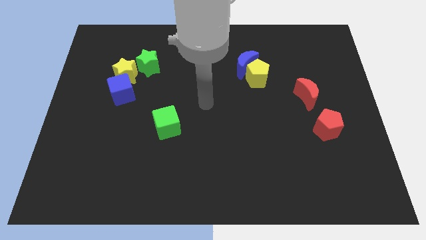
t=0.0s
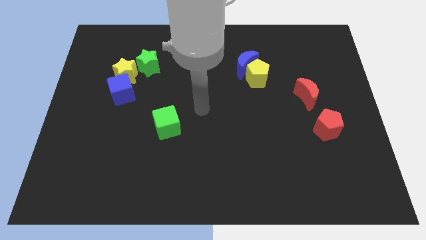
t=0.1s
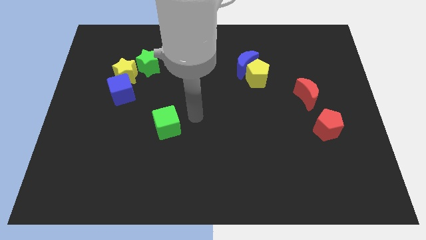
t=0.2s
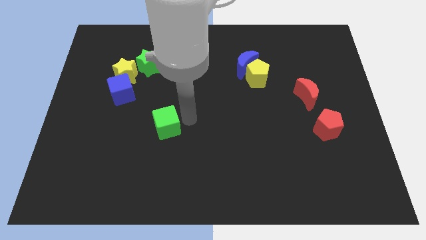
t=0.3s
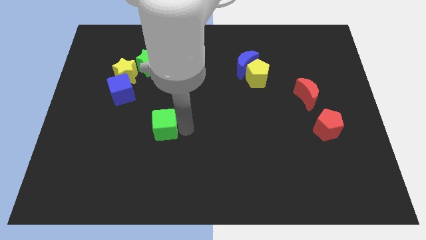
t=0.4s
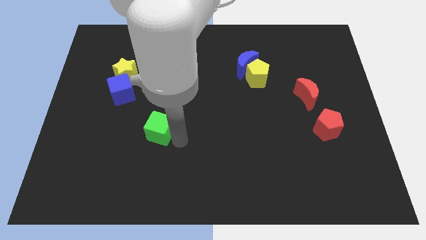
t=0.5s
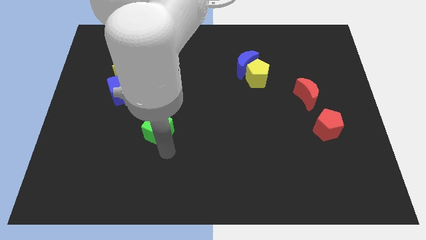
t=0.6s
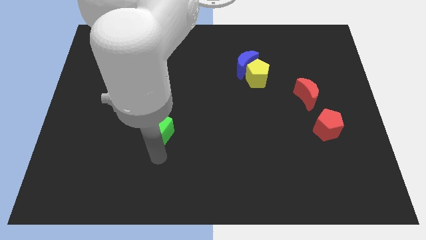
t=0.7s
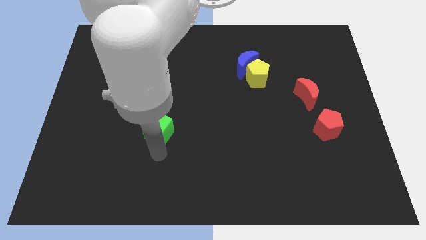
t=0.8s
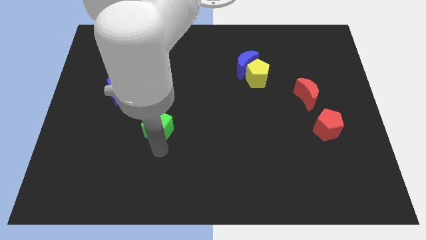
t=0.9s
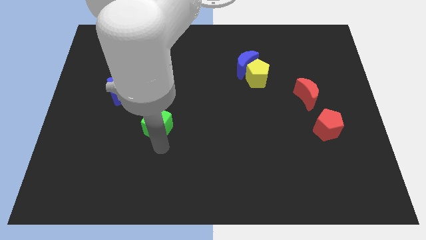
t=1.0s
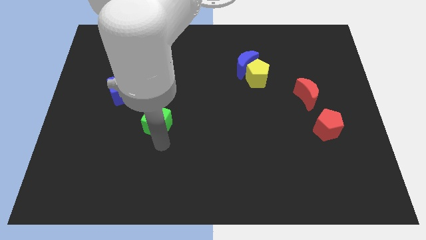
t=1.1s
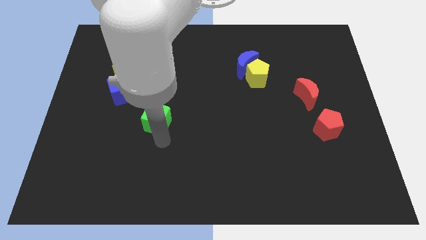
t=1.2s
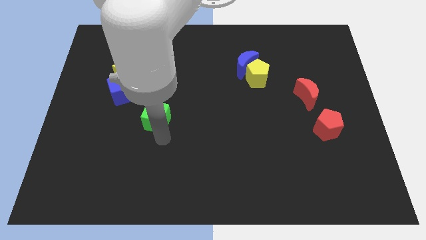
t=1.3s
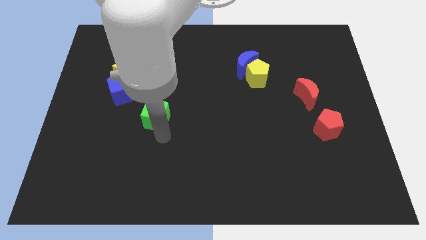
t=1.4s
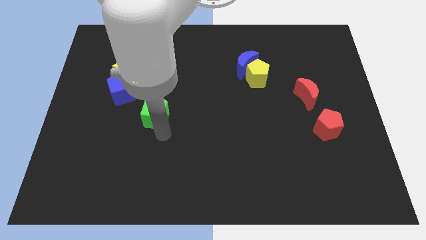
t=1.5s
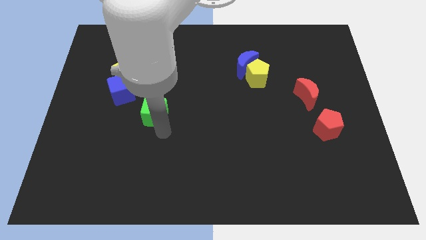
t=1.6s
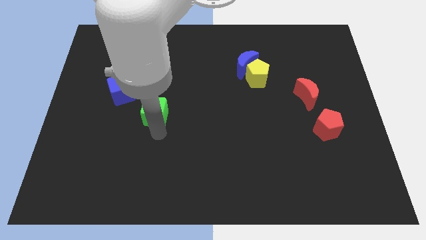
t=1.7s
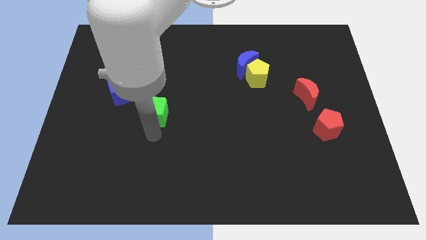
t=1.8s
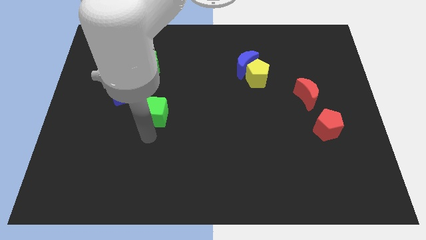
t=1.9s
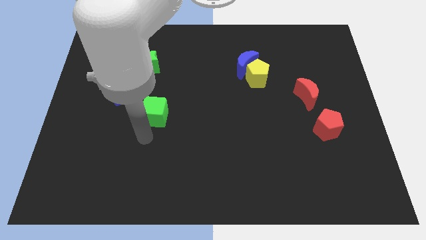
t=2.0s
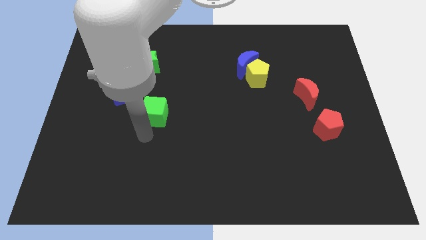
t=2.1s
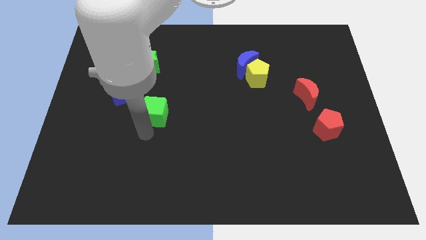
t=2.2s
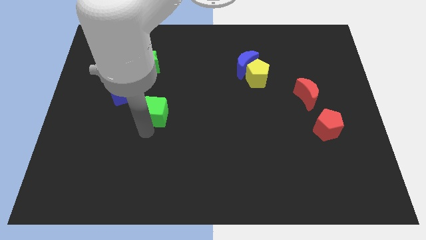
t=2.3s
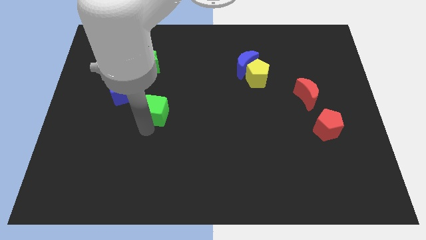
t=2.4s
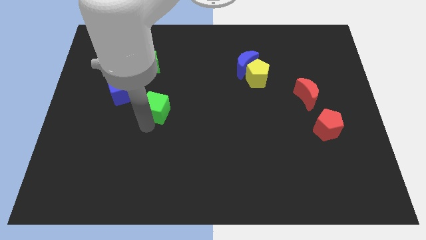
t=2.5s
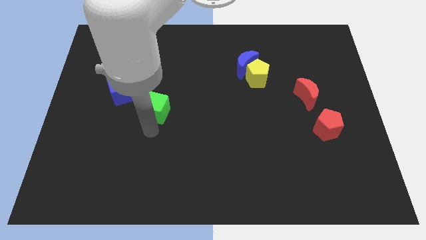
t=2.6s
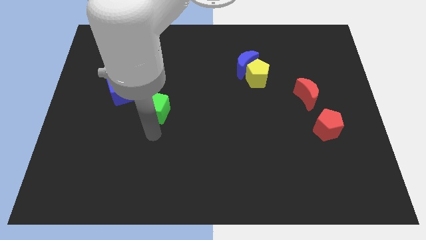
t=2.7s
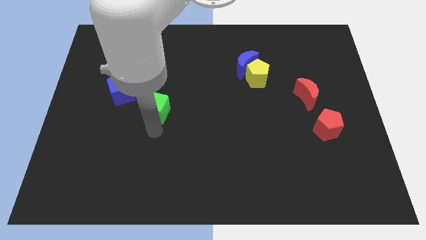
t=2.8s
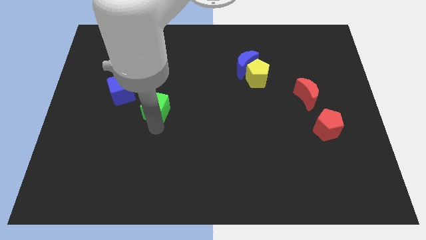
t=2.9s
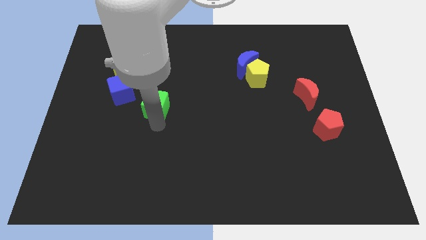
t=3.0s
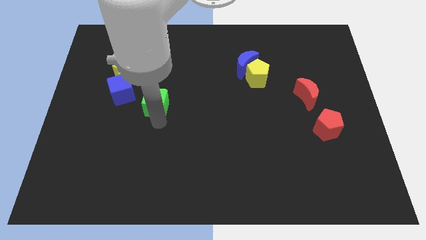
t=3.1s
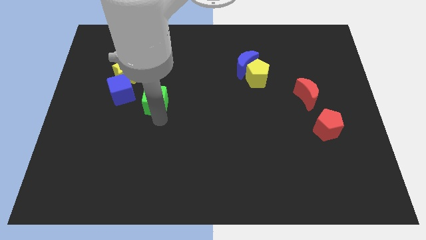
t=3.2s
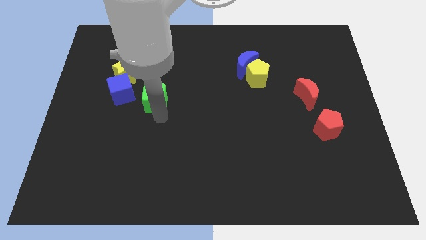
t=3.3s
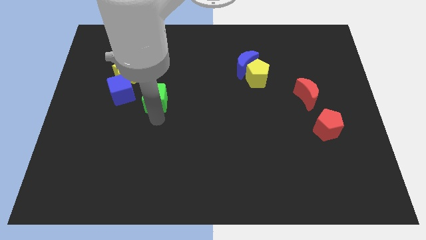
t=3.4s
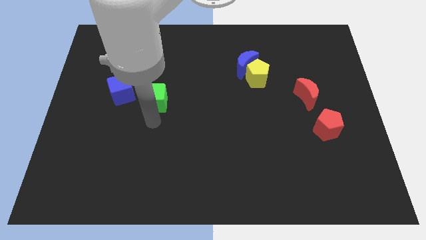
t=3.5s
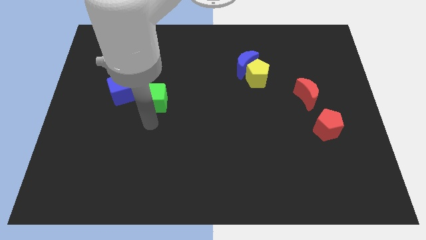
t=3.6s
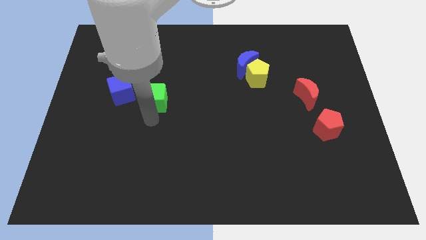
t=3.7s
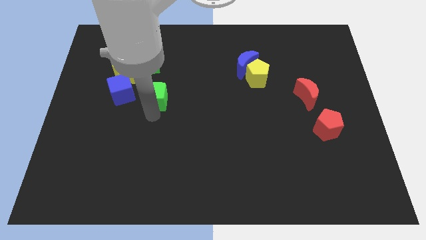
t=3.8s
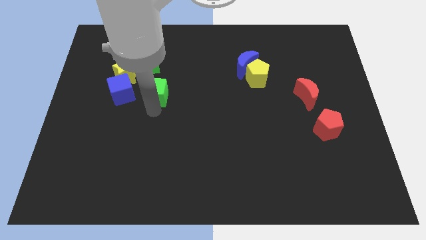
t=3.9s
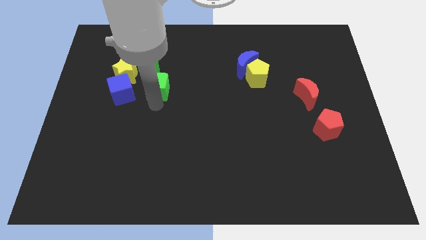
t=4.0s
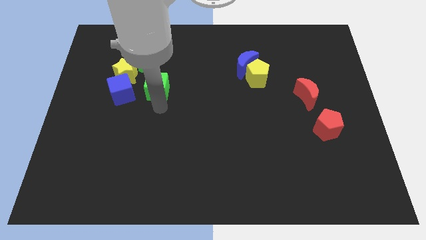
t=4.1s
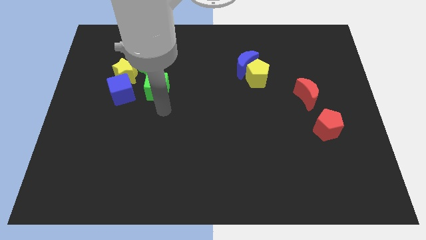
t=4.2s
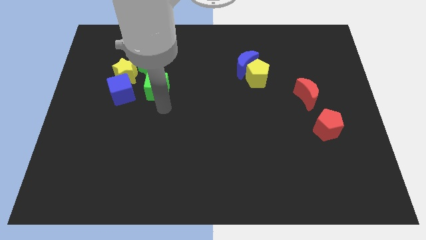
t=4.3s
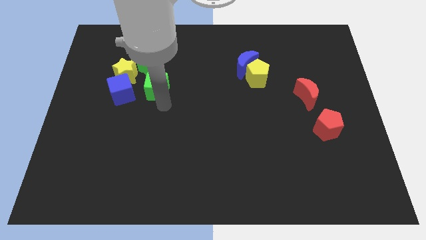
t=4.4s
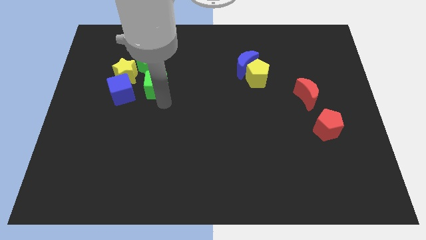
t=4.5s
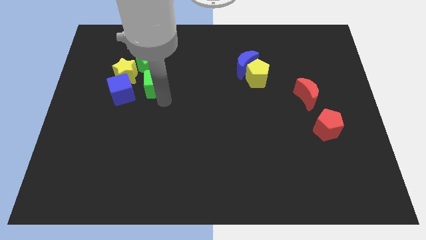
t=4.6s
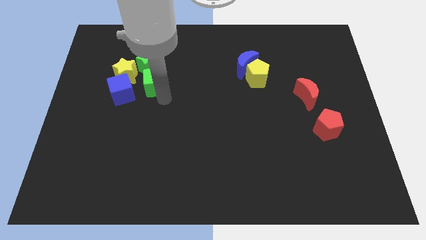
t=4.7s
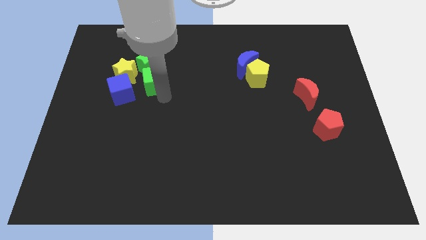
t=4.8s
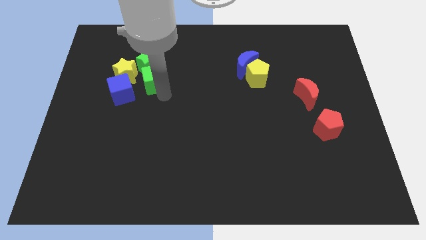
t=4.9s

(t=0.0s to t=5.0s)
slide the green cube to the green star

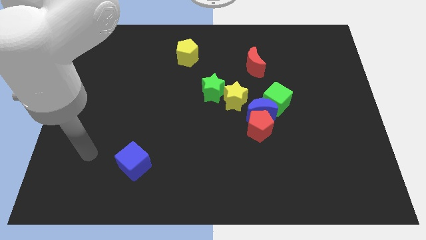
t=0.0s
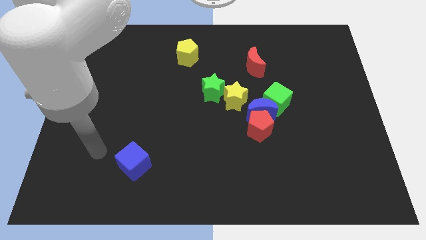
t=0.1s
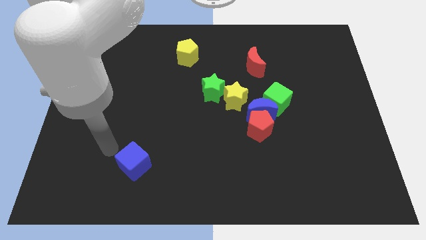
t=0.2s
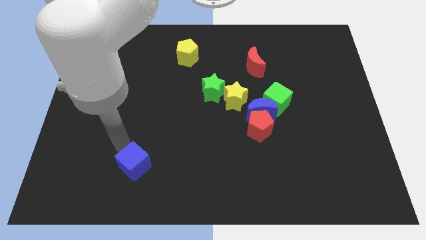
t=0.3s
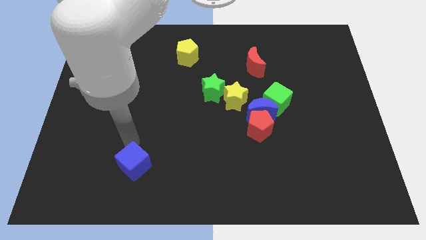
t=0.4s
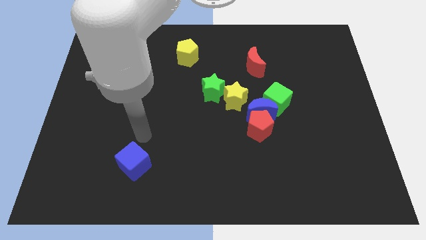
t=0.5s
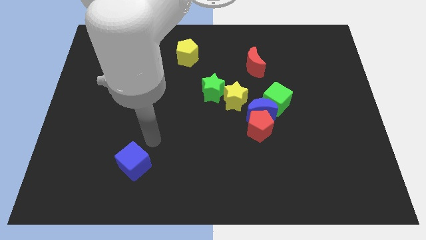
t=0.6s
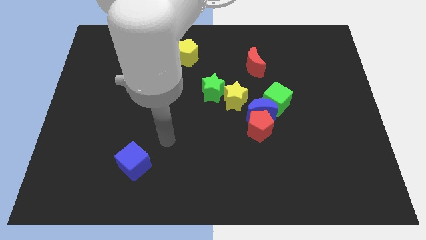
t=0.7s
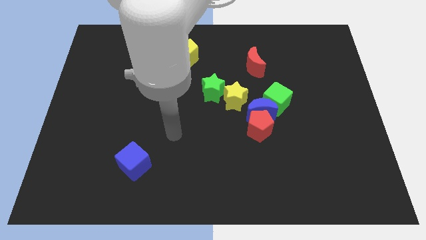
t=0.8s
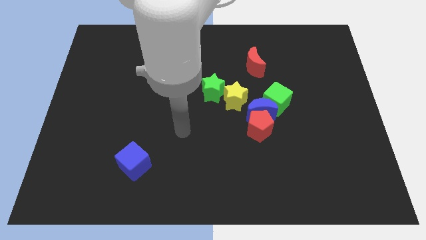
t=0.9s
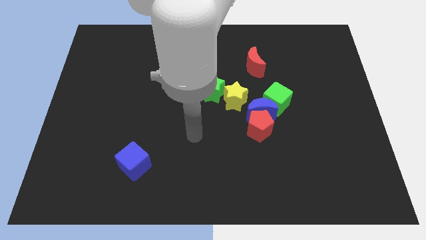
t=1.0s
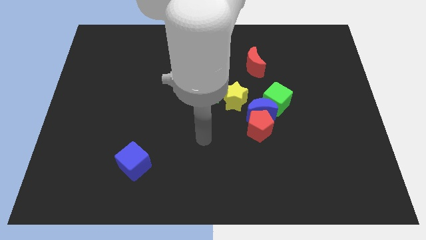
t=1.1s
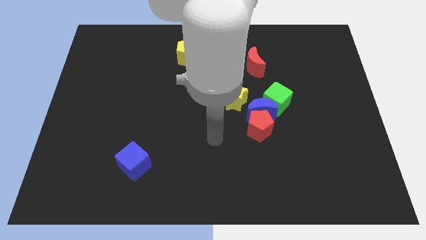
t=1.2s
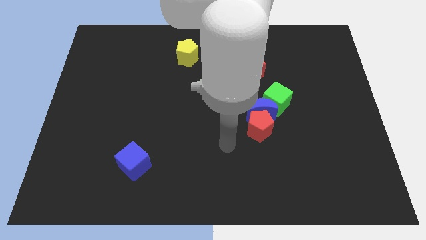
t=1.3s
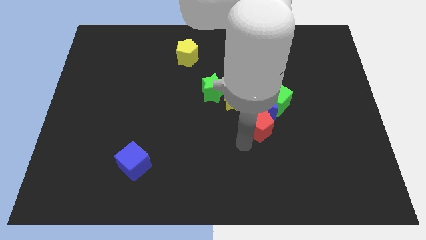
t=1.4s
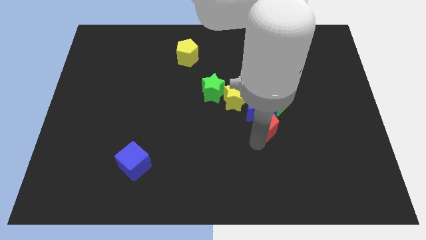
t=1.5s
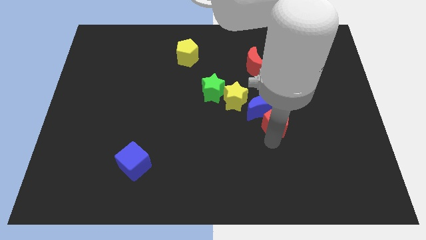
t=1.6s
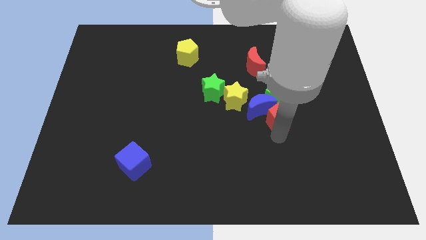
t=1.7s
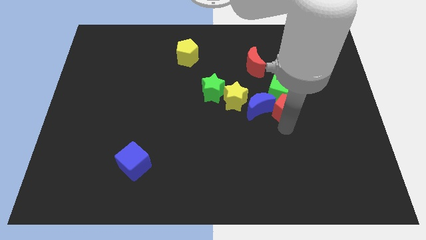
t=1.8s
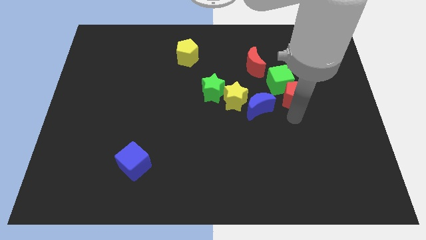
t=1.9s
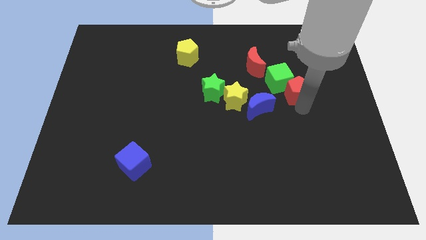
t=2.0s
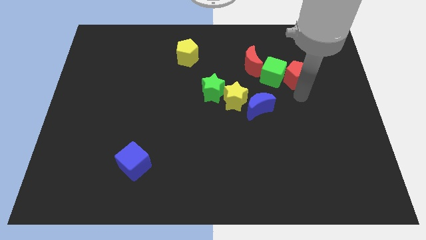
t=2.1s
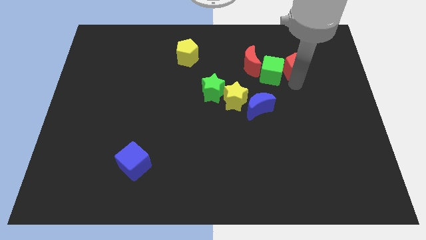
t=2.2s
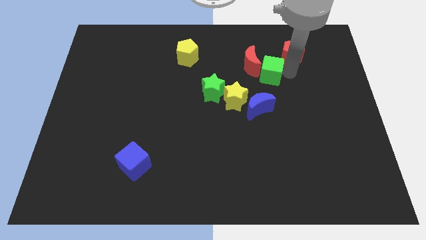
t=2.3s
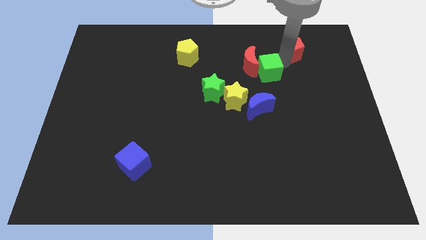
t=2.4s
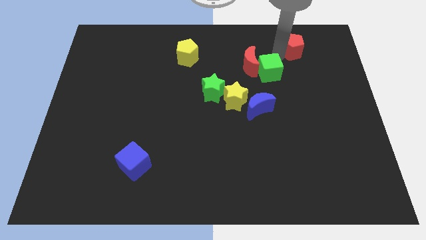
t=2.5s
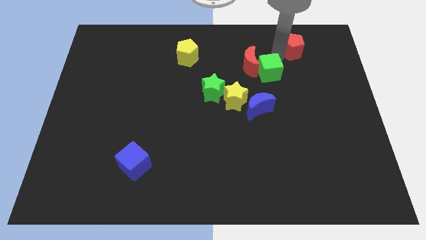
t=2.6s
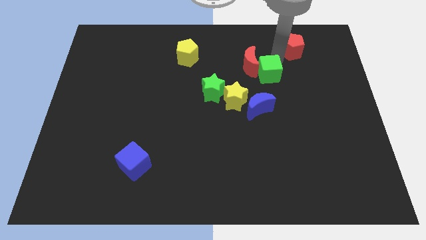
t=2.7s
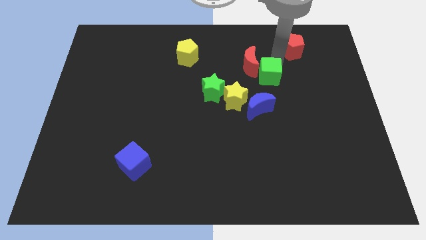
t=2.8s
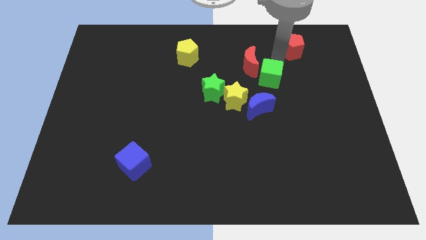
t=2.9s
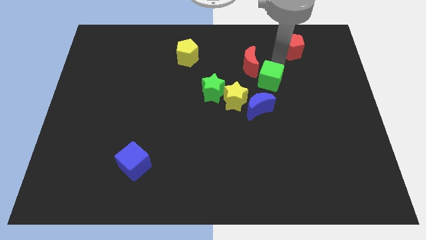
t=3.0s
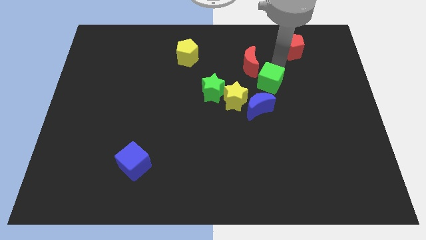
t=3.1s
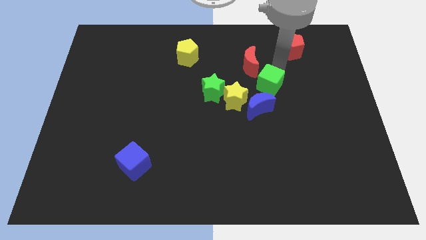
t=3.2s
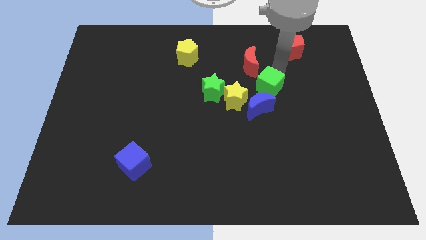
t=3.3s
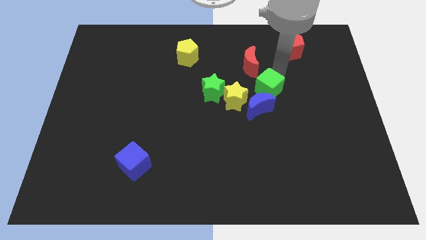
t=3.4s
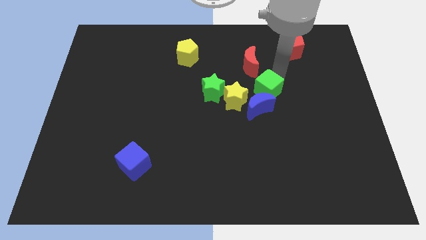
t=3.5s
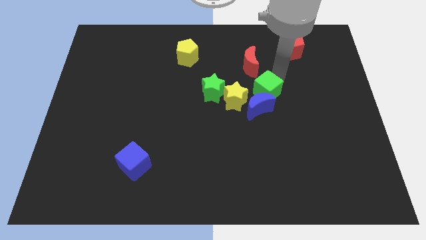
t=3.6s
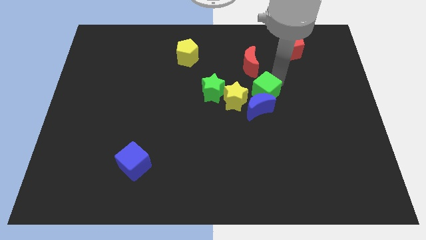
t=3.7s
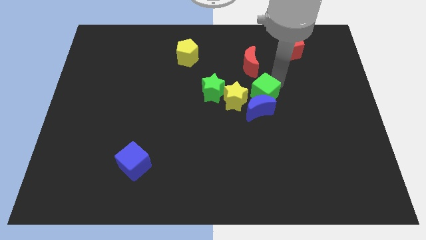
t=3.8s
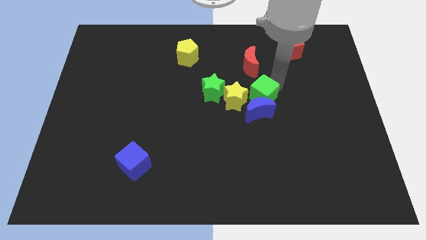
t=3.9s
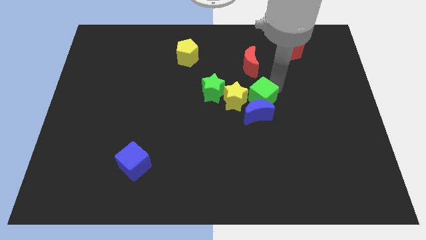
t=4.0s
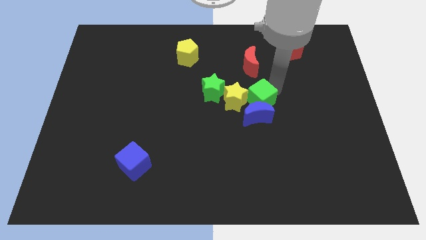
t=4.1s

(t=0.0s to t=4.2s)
slide the green cube next to the yellow star
